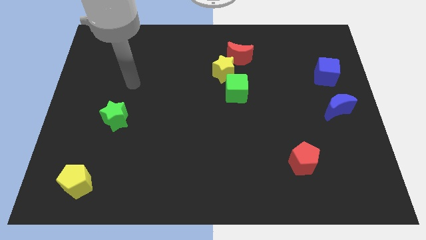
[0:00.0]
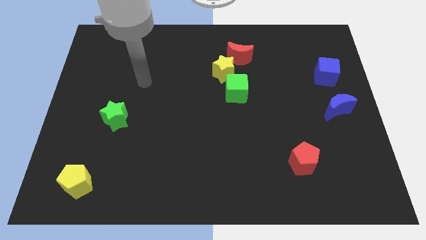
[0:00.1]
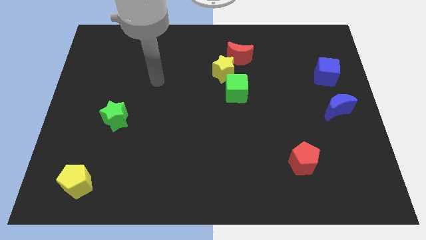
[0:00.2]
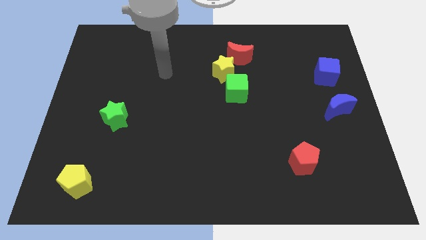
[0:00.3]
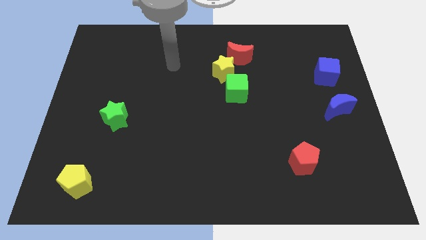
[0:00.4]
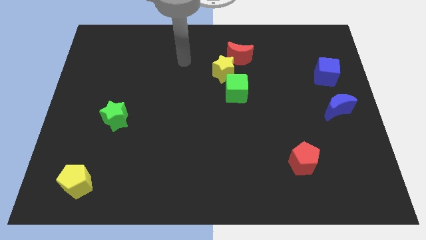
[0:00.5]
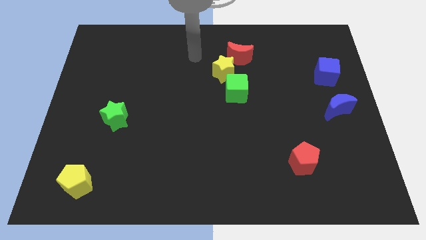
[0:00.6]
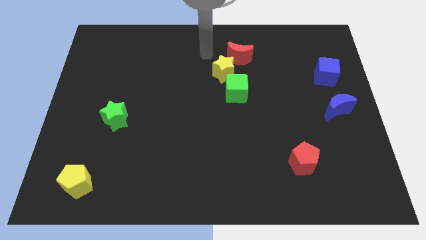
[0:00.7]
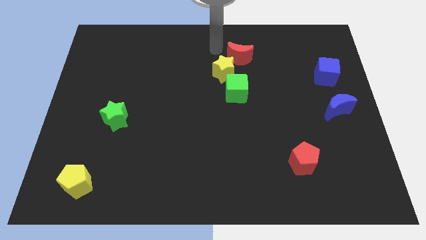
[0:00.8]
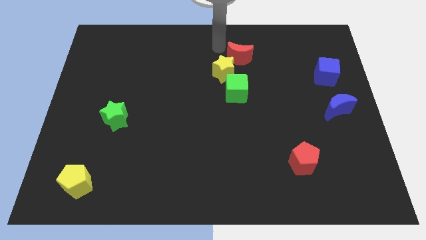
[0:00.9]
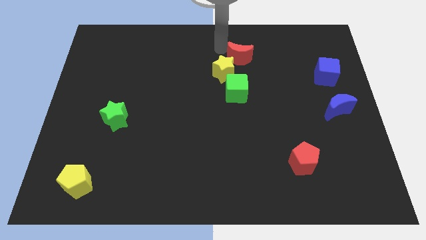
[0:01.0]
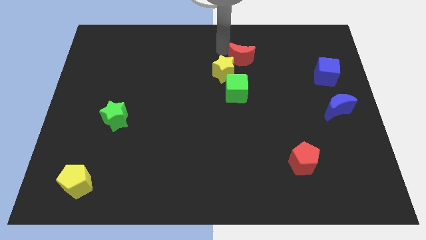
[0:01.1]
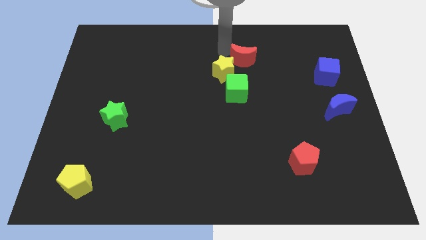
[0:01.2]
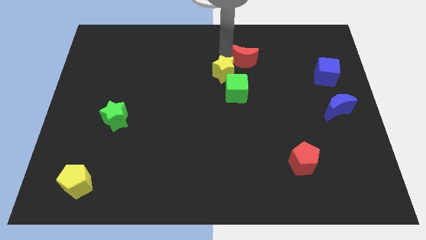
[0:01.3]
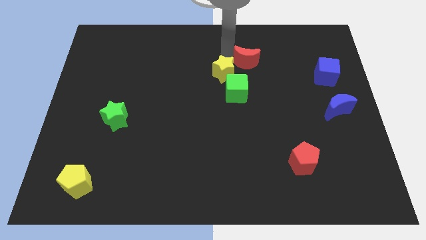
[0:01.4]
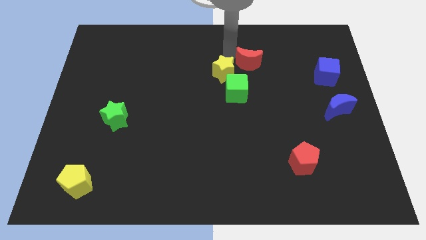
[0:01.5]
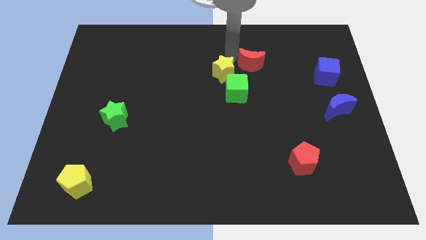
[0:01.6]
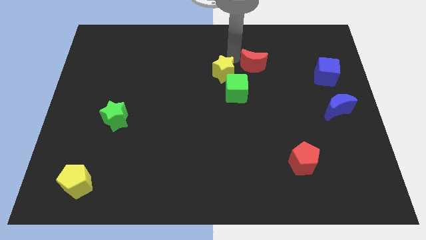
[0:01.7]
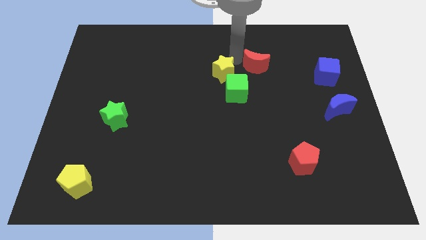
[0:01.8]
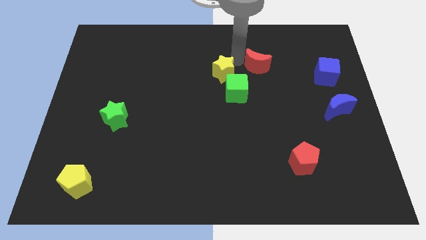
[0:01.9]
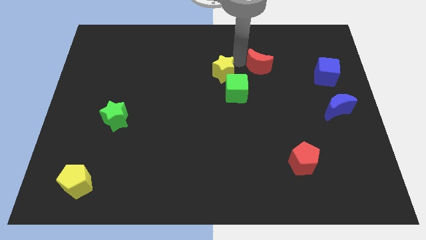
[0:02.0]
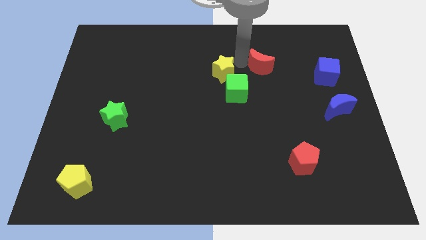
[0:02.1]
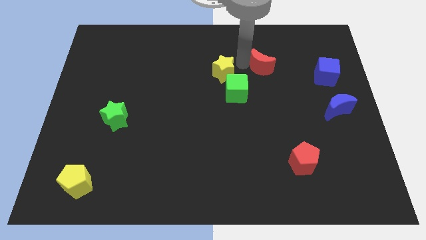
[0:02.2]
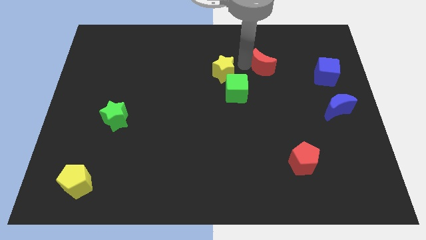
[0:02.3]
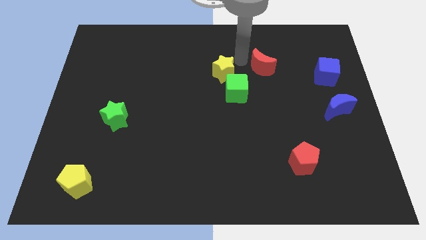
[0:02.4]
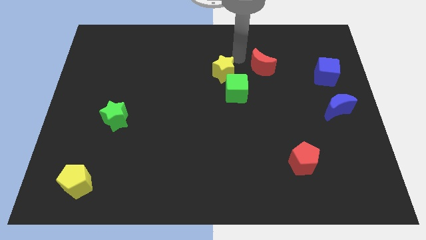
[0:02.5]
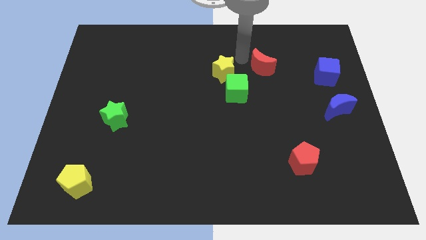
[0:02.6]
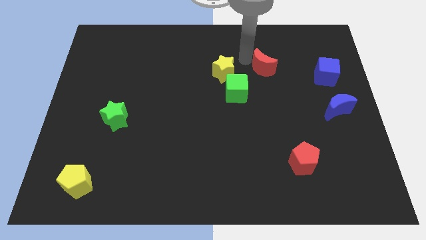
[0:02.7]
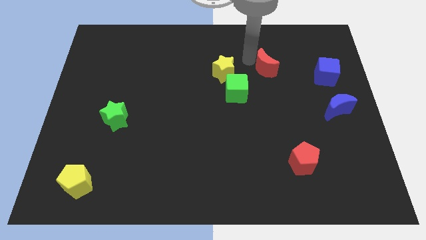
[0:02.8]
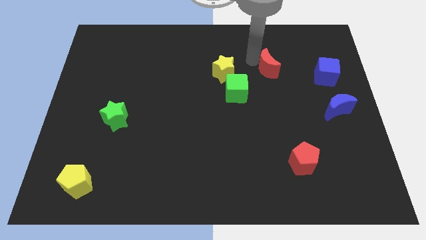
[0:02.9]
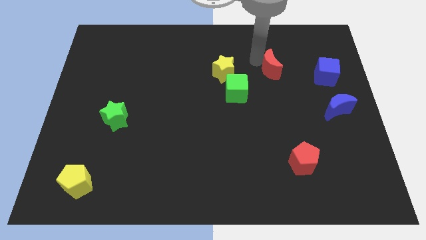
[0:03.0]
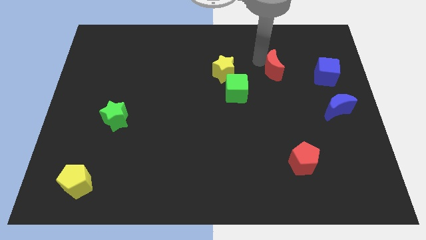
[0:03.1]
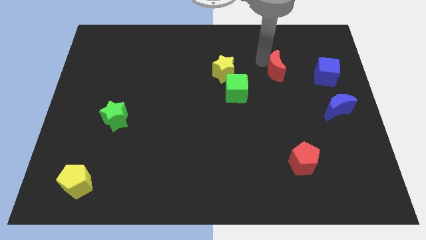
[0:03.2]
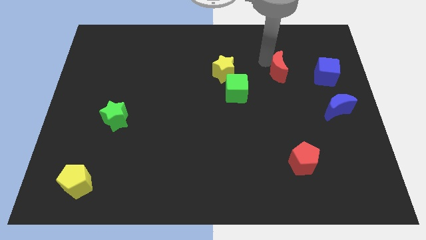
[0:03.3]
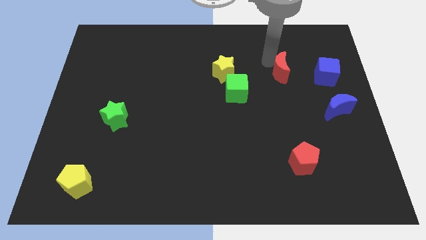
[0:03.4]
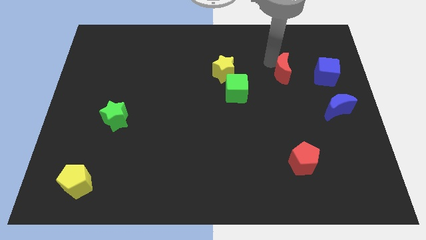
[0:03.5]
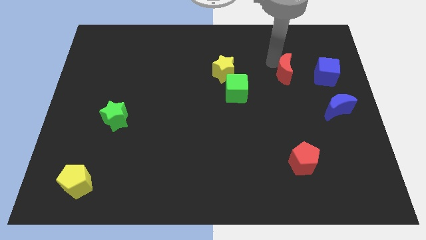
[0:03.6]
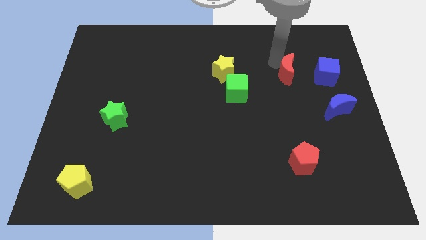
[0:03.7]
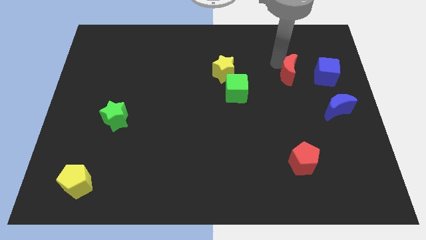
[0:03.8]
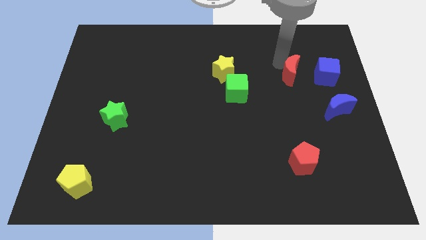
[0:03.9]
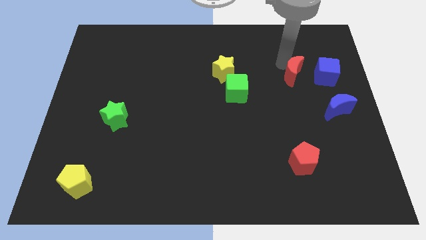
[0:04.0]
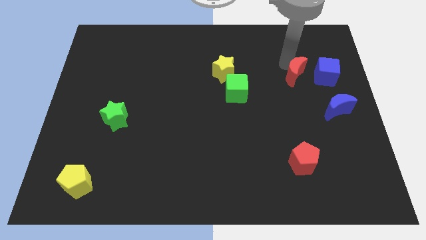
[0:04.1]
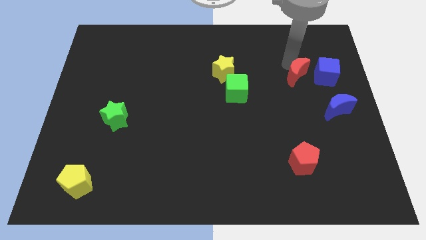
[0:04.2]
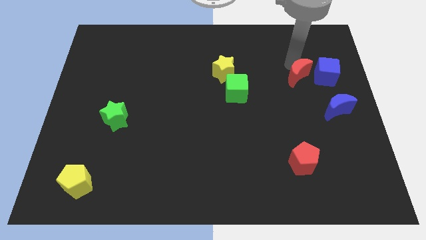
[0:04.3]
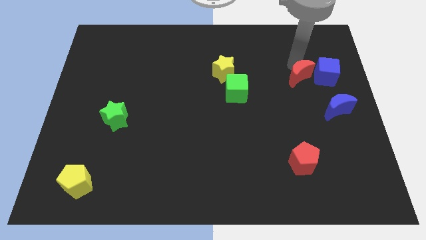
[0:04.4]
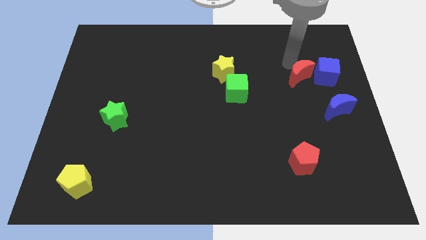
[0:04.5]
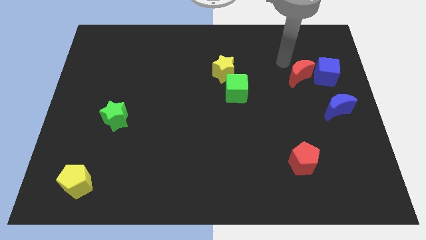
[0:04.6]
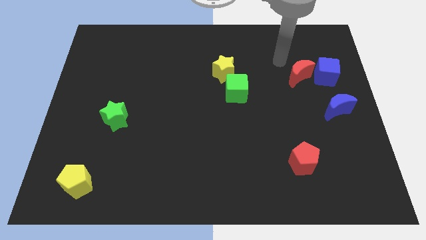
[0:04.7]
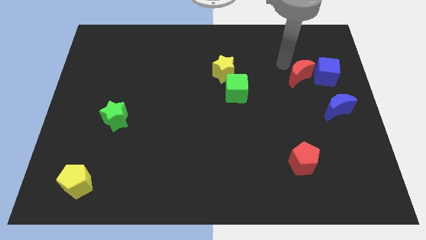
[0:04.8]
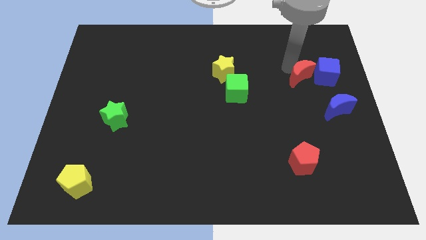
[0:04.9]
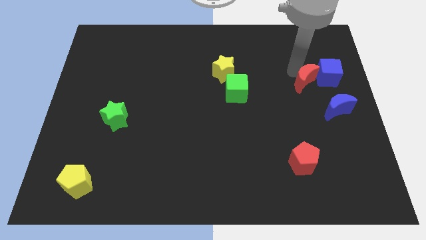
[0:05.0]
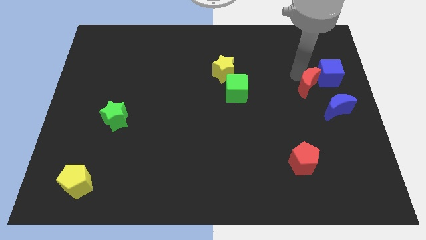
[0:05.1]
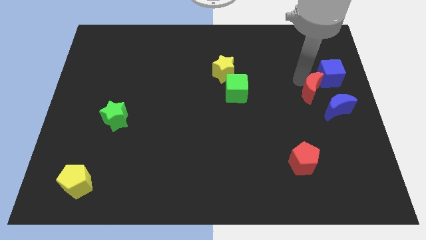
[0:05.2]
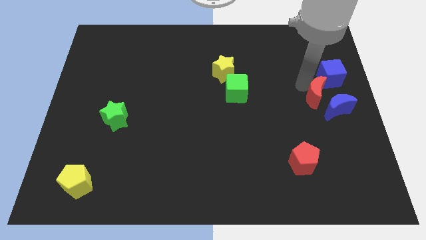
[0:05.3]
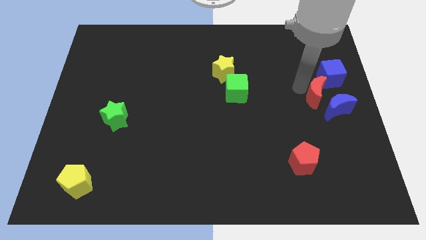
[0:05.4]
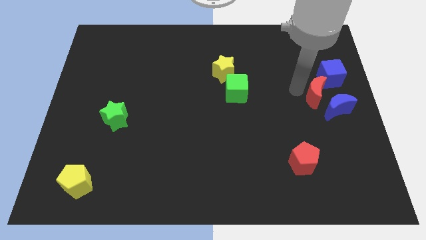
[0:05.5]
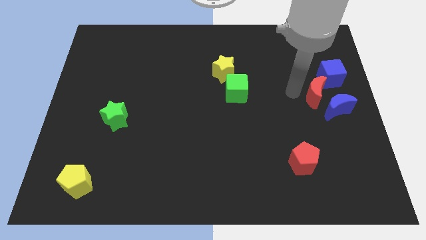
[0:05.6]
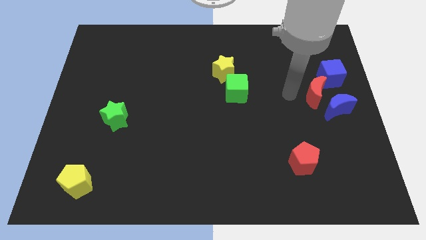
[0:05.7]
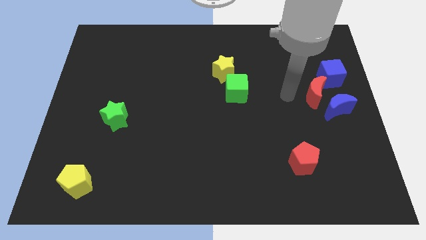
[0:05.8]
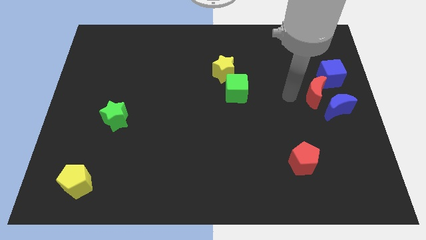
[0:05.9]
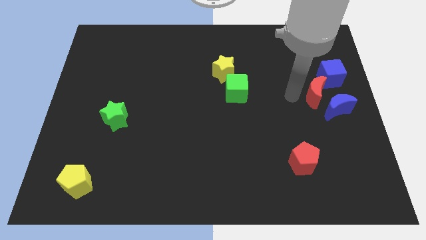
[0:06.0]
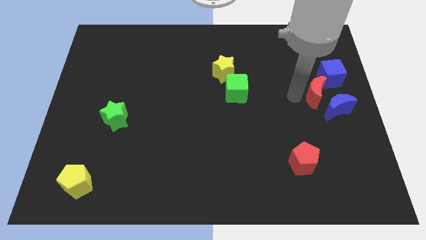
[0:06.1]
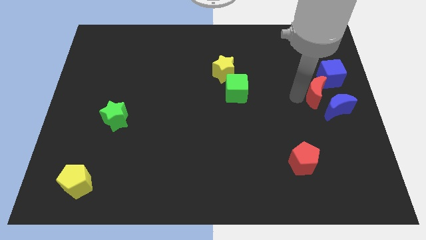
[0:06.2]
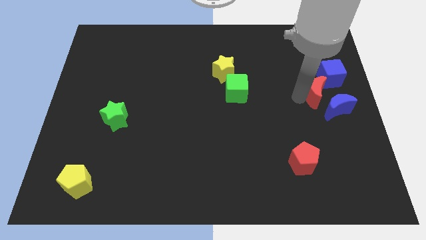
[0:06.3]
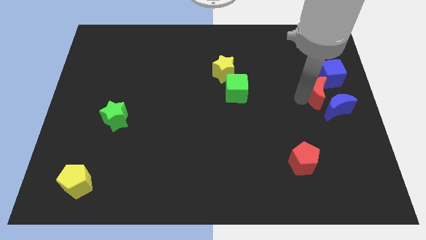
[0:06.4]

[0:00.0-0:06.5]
put the red moon to the right side of the board
